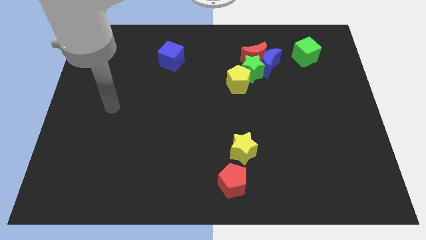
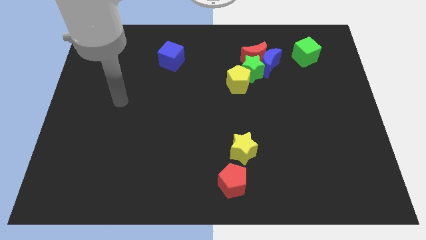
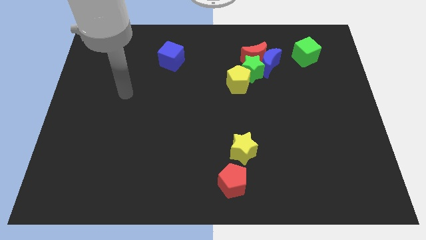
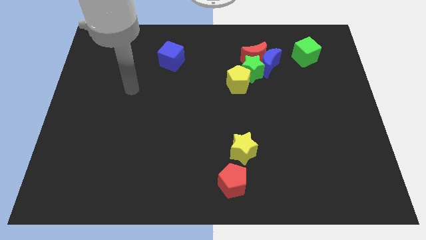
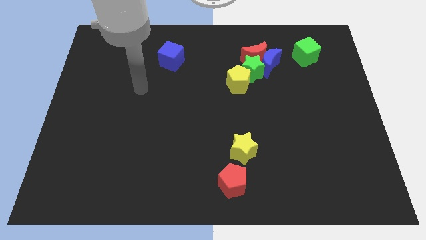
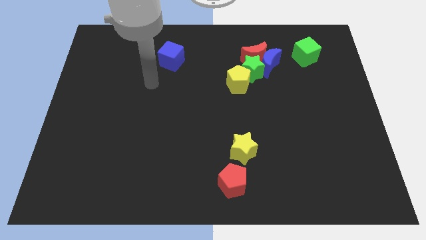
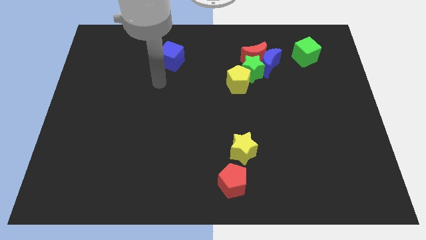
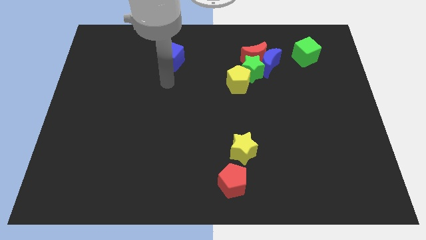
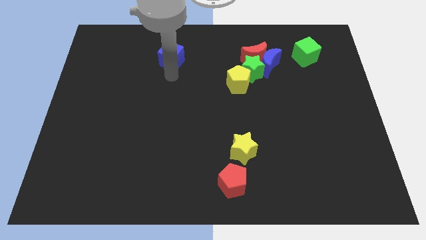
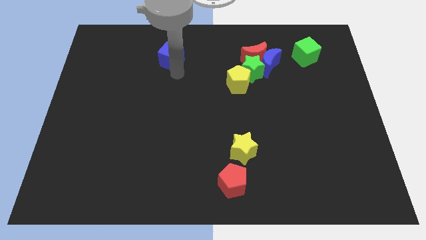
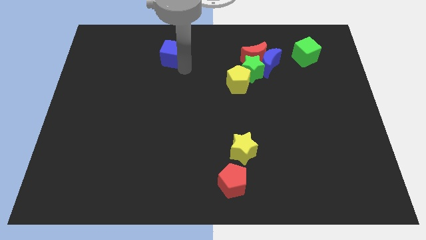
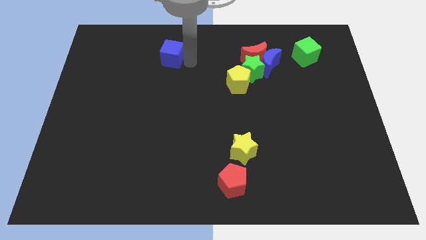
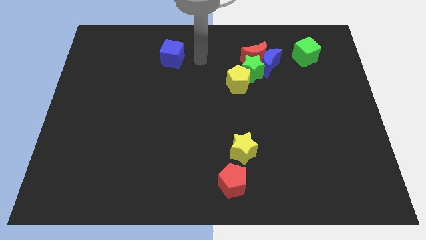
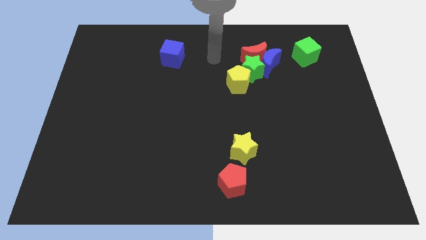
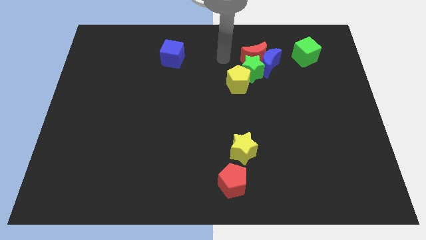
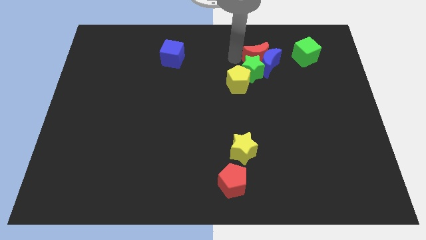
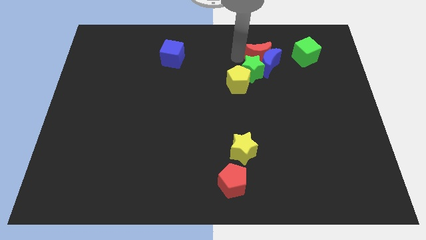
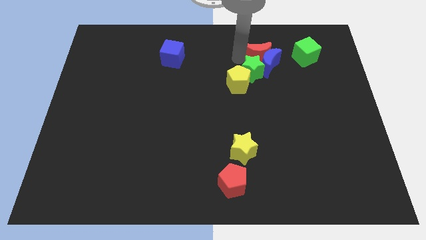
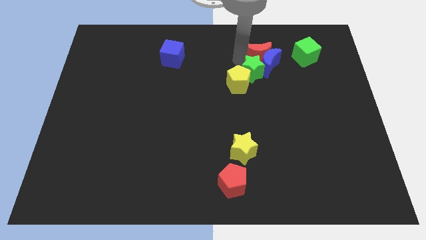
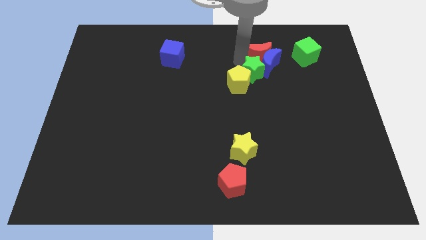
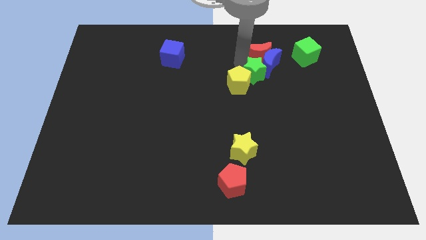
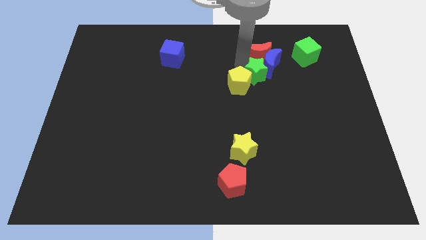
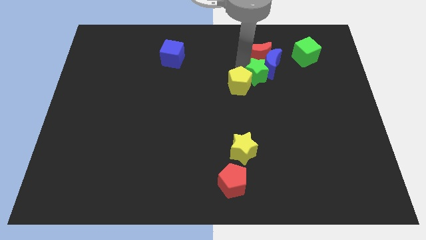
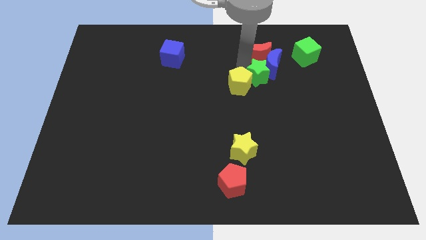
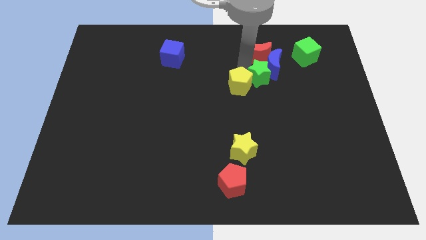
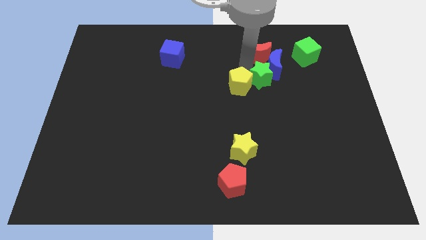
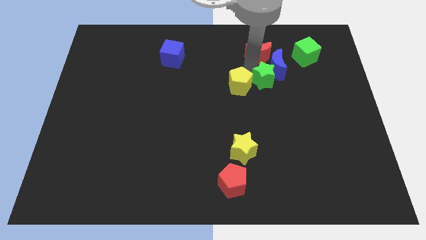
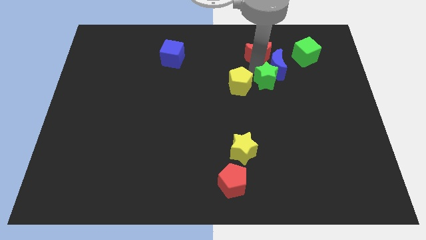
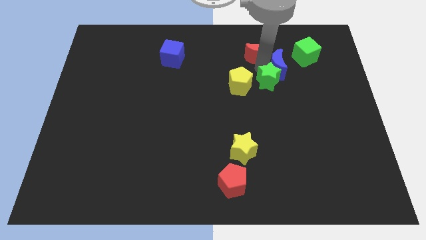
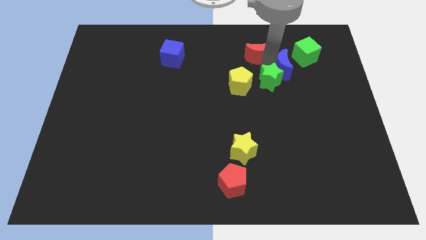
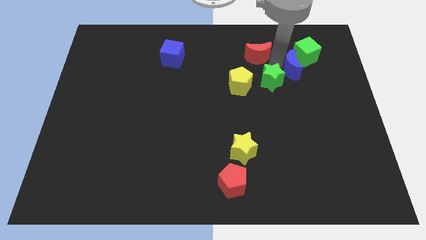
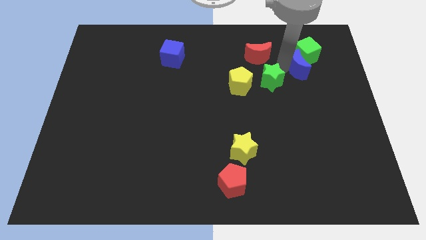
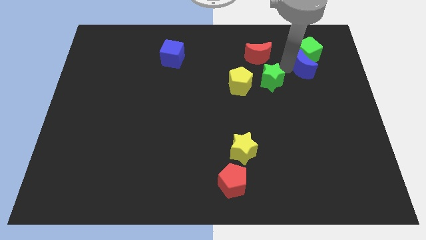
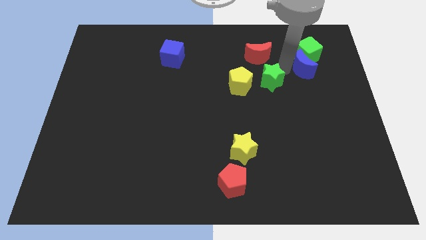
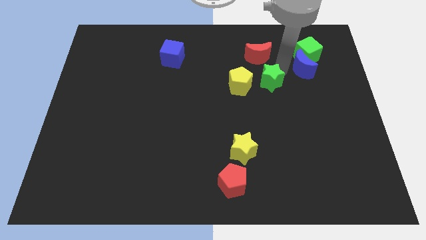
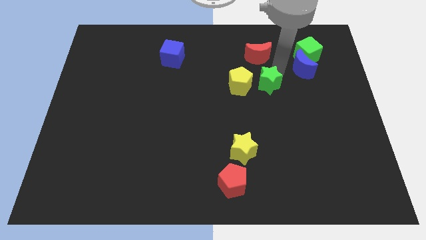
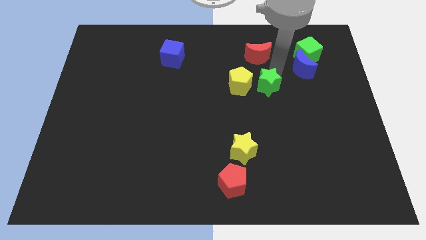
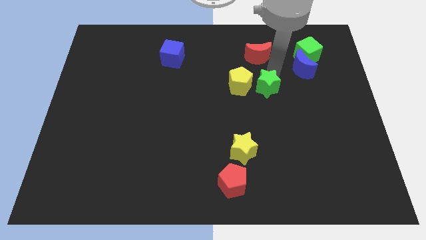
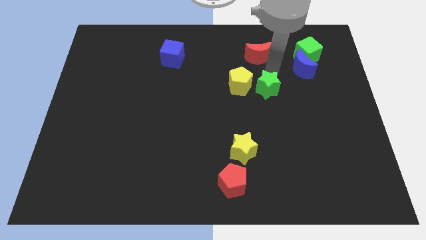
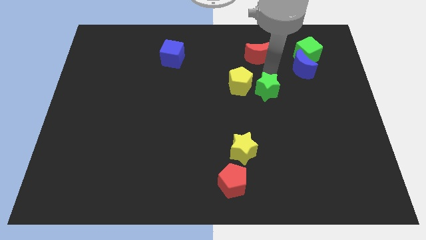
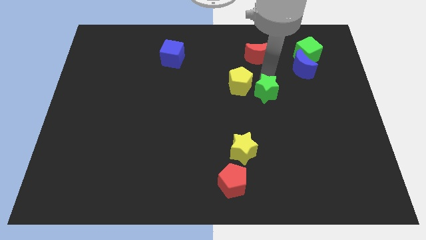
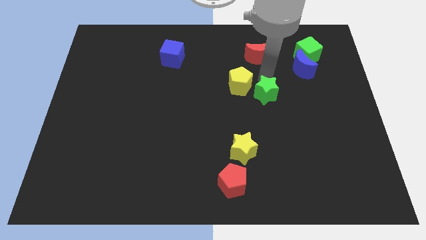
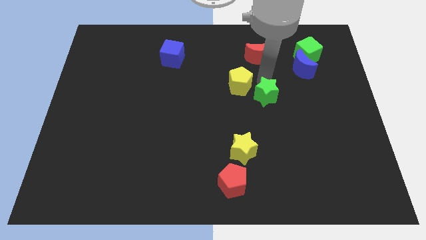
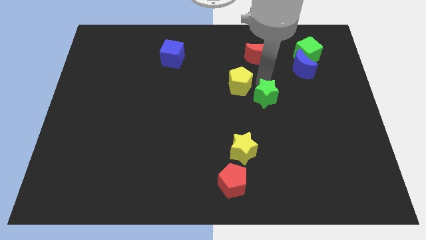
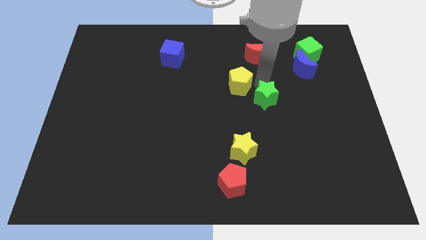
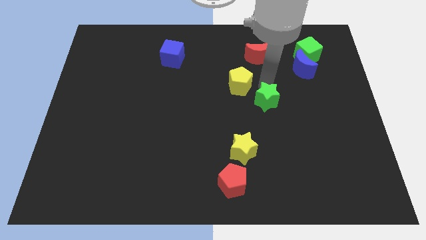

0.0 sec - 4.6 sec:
separate the green star from the clump

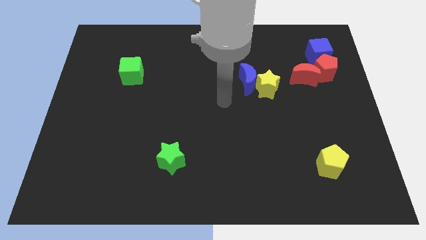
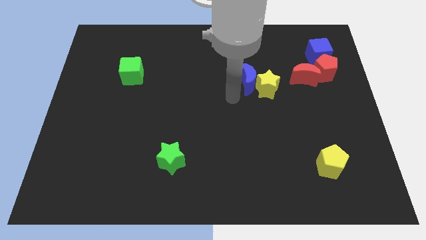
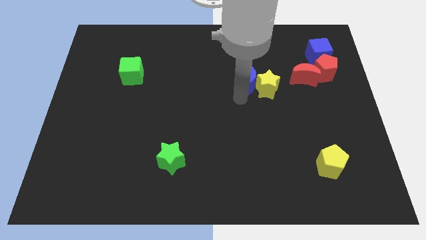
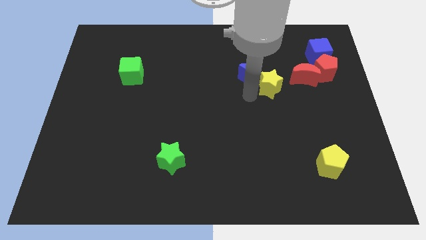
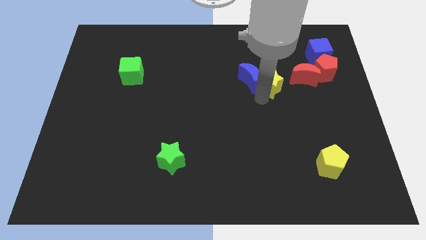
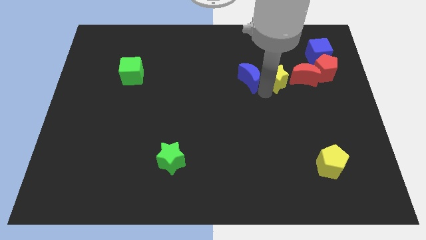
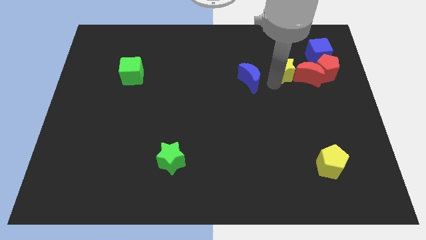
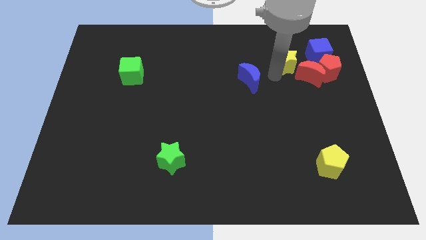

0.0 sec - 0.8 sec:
pull the blue moon apart from the yellow star

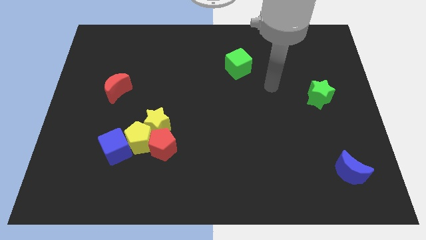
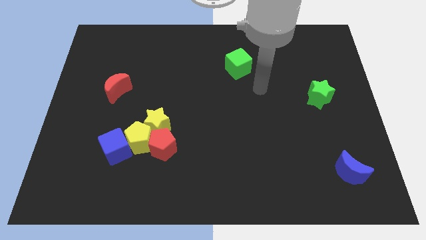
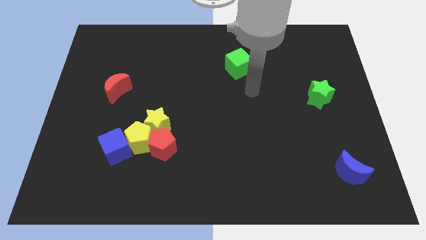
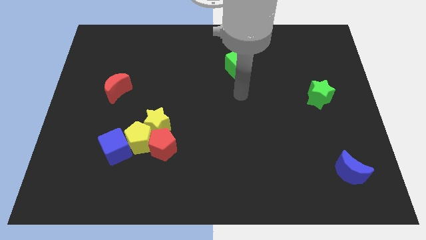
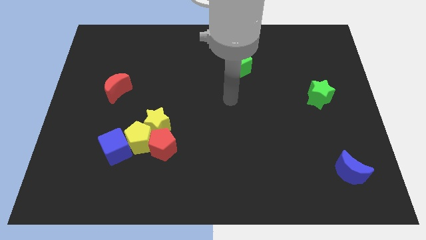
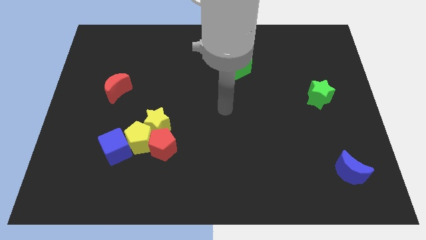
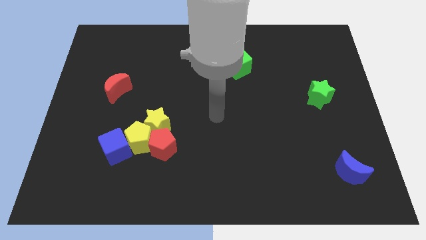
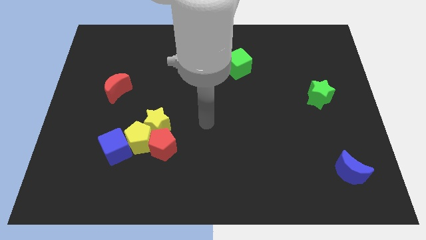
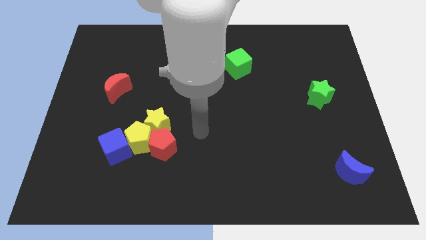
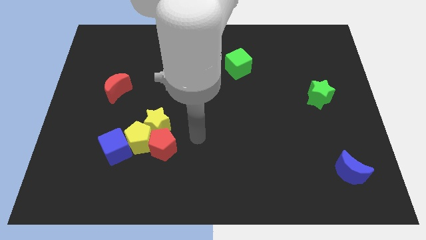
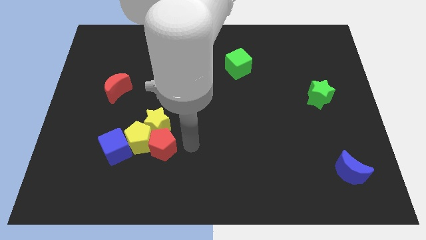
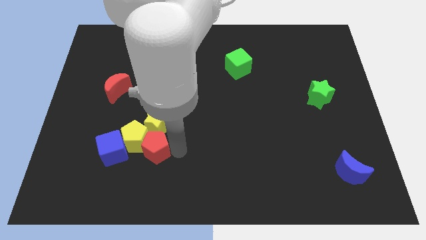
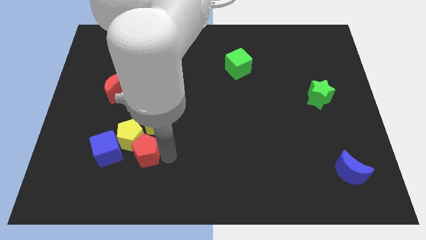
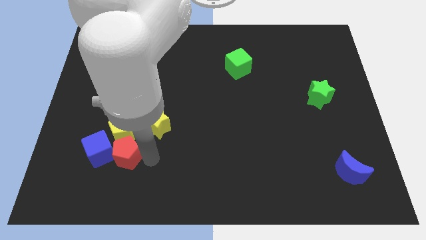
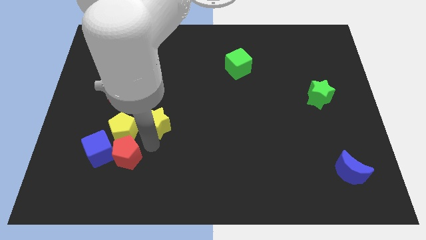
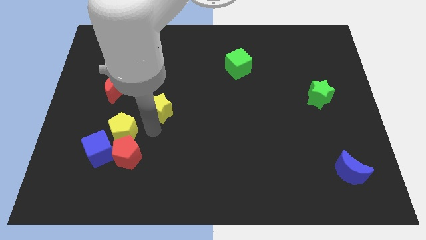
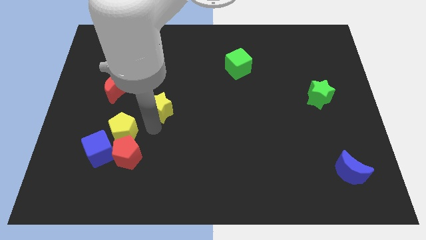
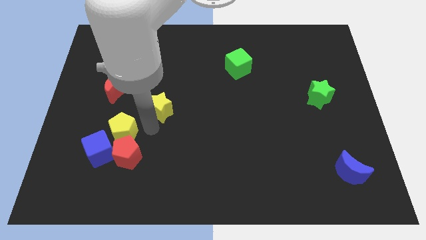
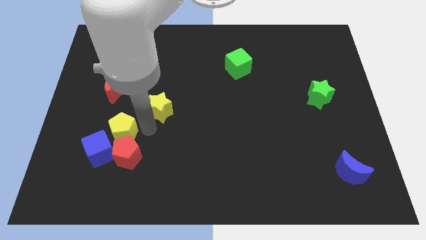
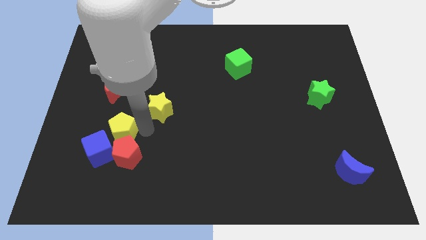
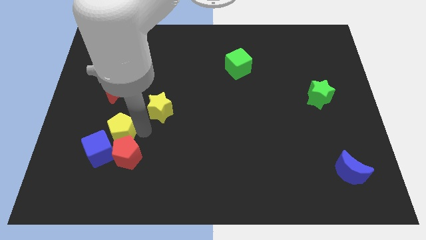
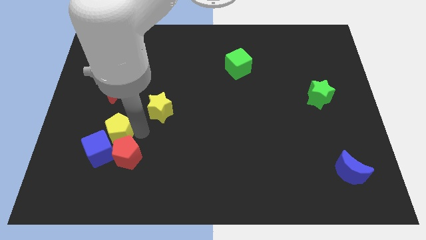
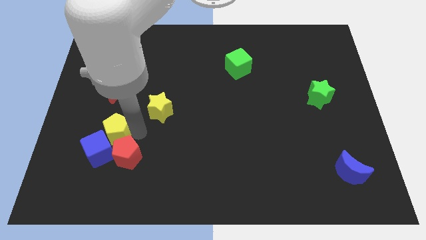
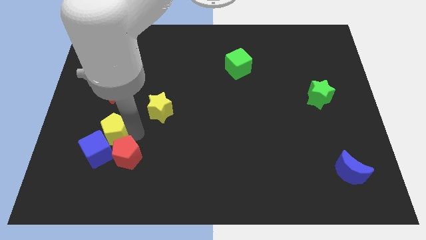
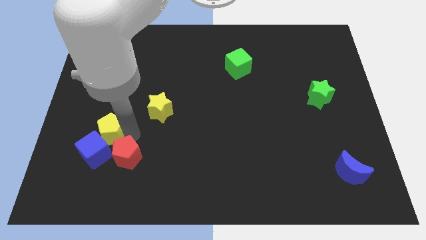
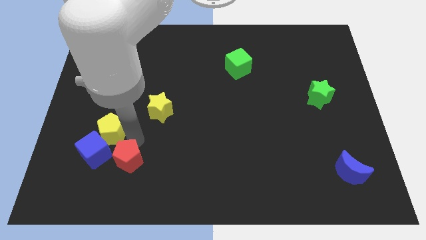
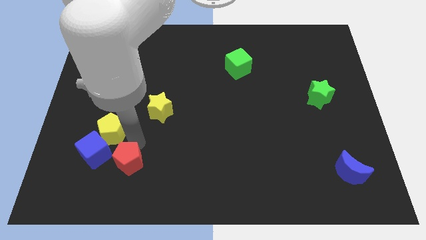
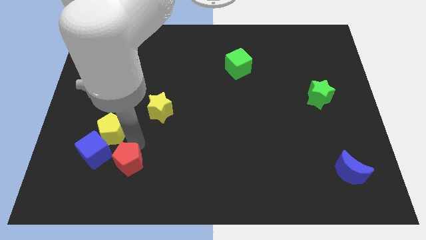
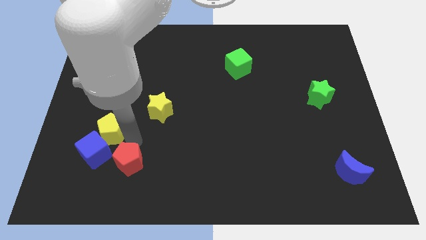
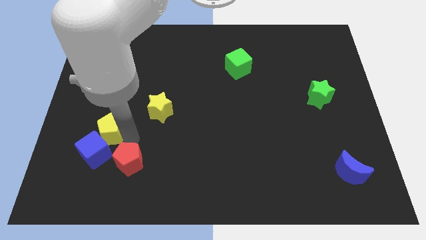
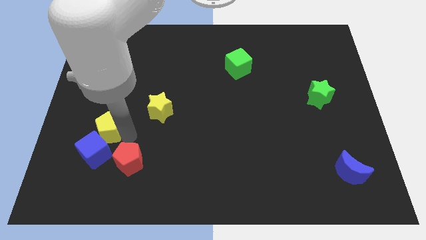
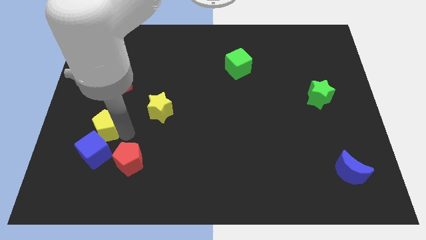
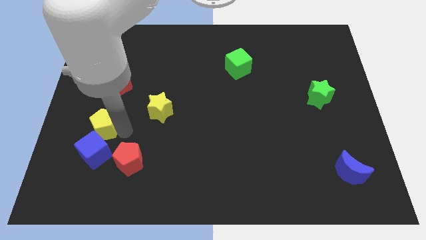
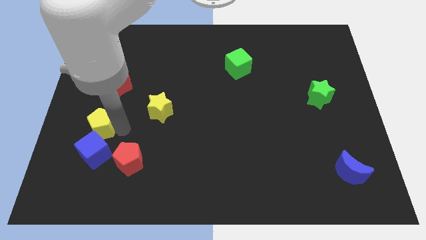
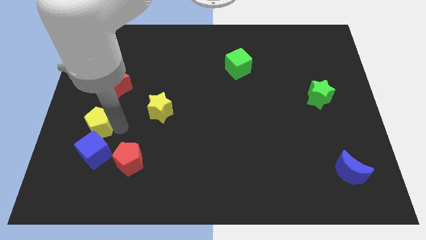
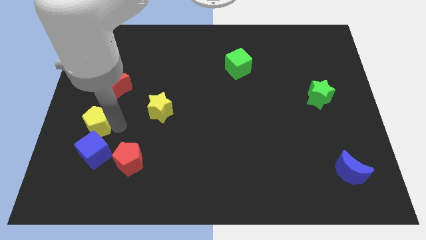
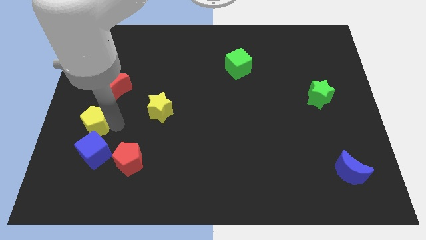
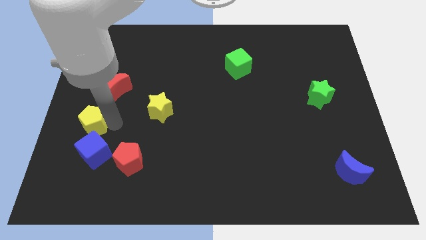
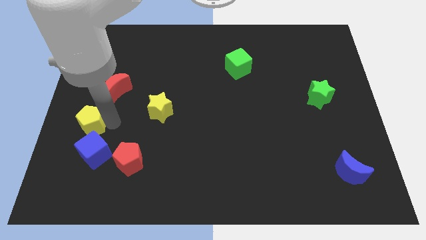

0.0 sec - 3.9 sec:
move the yellow pentagon away from the blue cube, yellow star, and red pentagon
